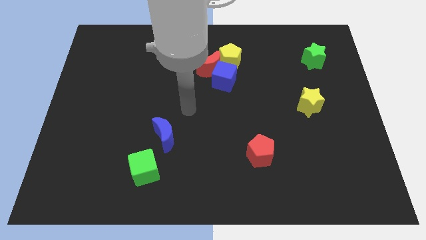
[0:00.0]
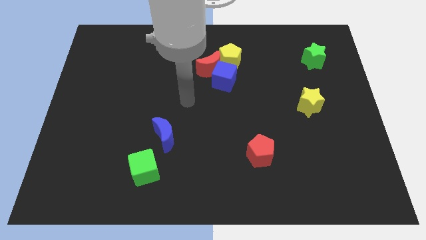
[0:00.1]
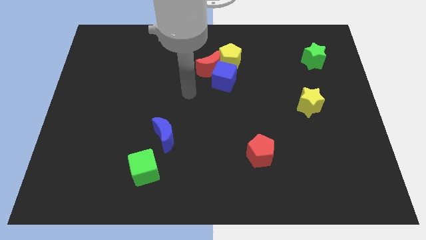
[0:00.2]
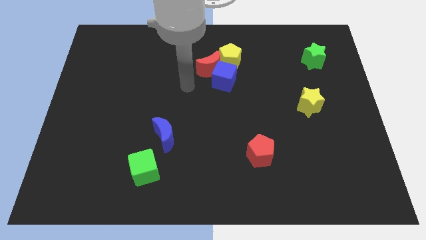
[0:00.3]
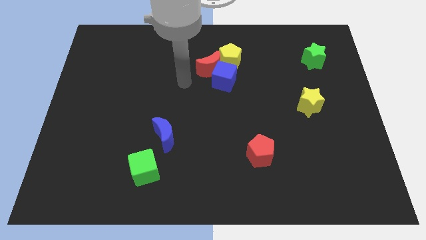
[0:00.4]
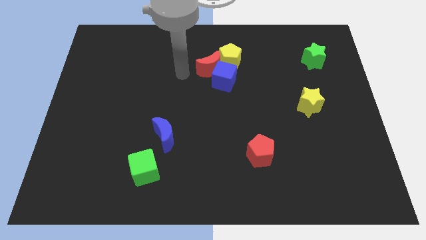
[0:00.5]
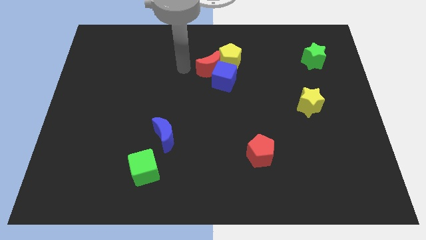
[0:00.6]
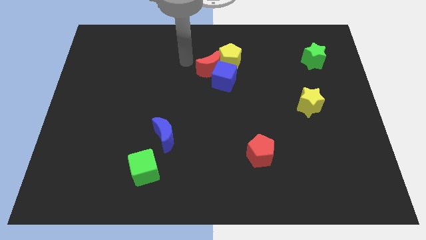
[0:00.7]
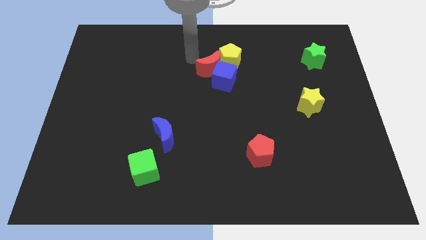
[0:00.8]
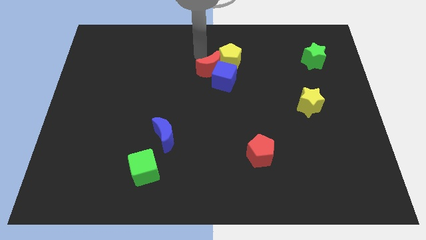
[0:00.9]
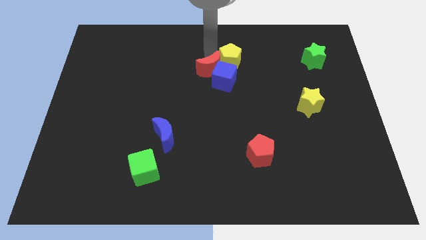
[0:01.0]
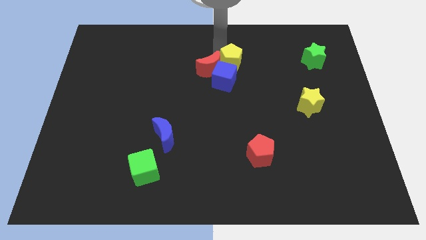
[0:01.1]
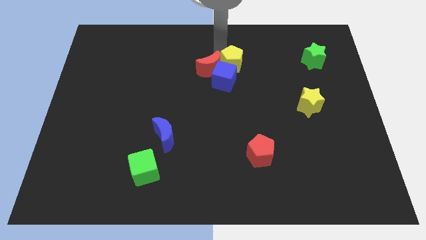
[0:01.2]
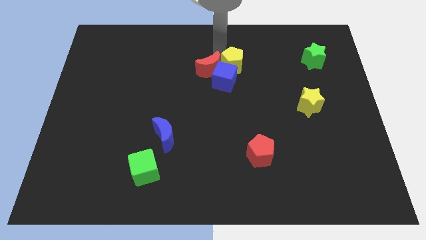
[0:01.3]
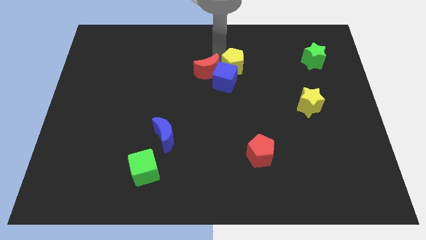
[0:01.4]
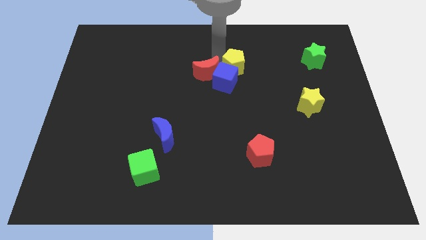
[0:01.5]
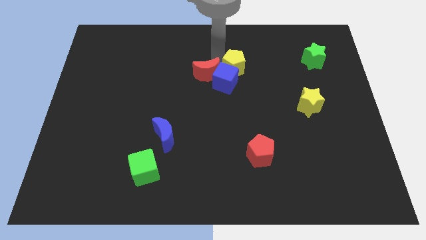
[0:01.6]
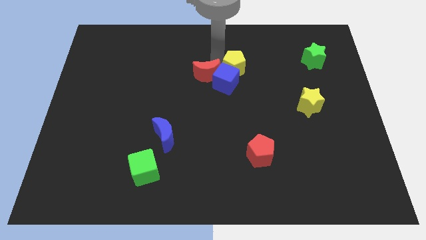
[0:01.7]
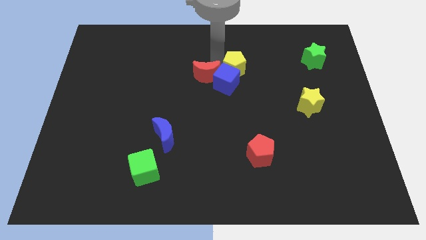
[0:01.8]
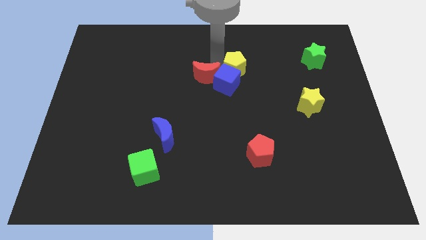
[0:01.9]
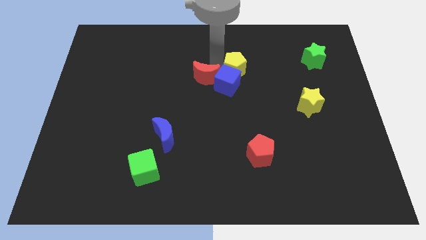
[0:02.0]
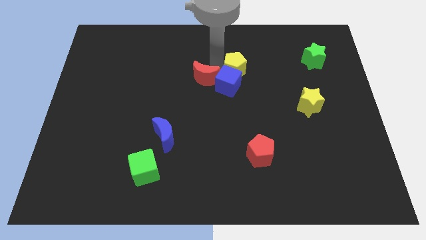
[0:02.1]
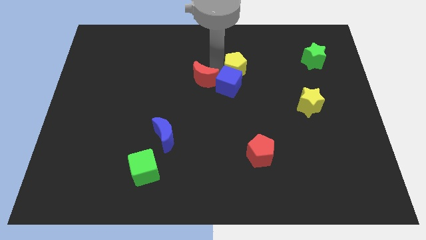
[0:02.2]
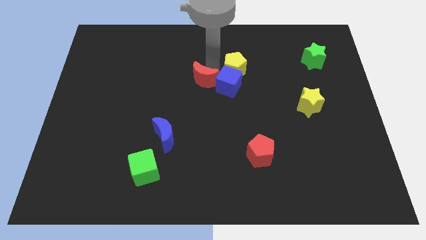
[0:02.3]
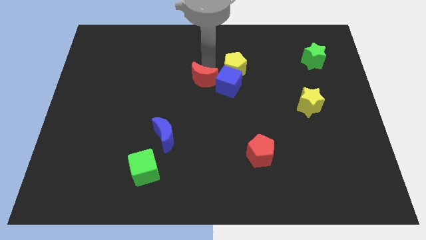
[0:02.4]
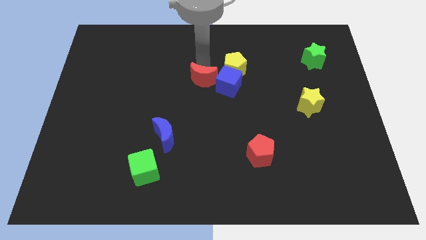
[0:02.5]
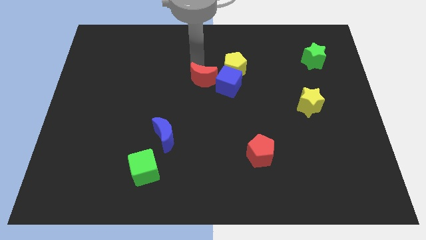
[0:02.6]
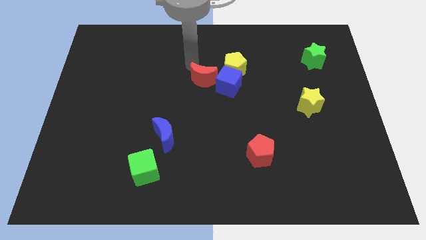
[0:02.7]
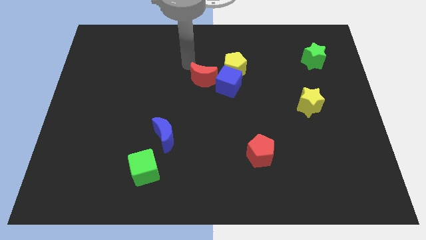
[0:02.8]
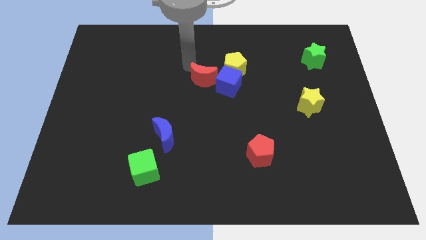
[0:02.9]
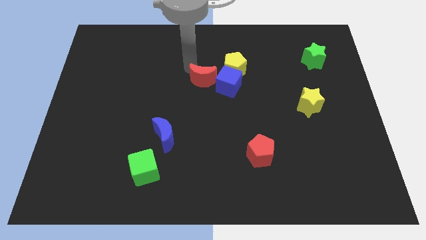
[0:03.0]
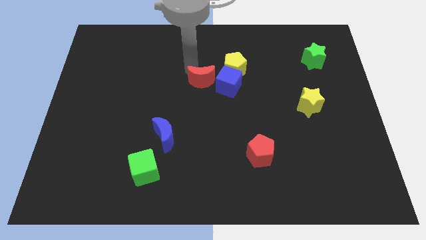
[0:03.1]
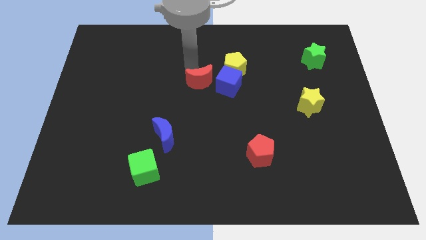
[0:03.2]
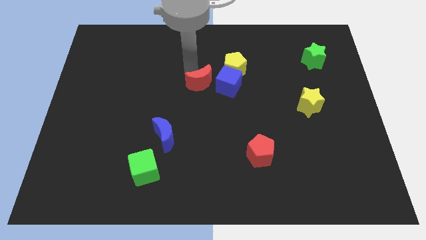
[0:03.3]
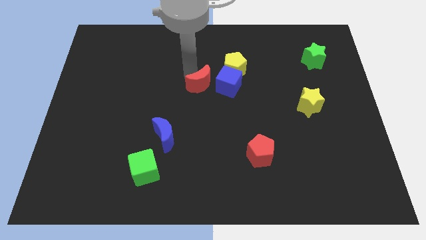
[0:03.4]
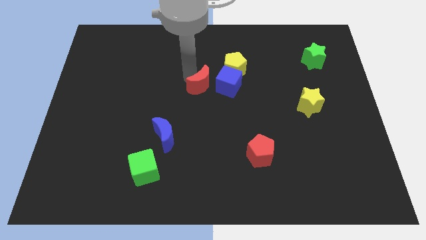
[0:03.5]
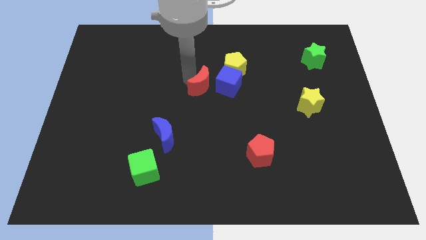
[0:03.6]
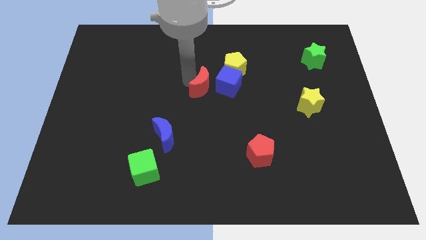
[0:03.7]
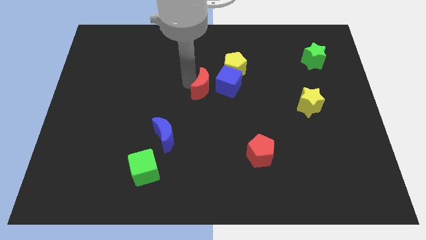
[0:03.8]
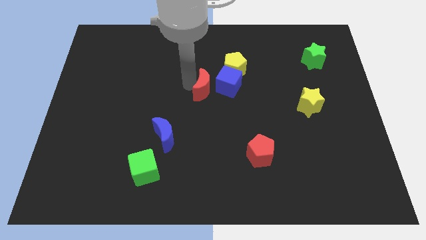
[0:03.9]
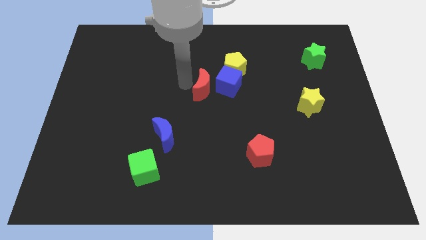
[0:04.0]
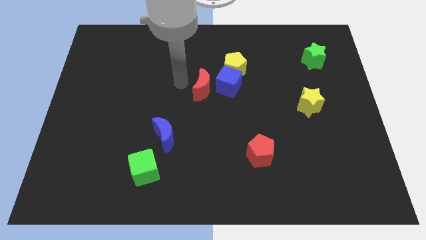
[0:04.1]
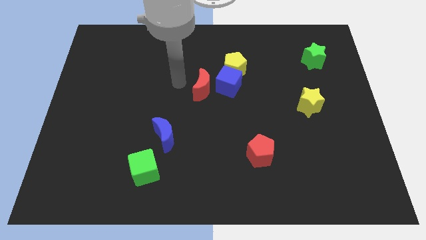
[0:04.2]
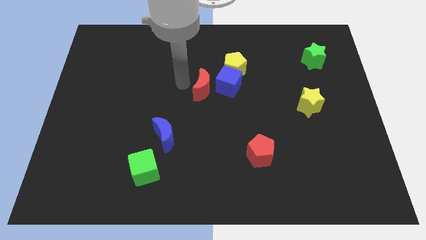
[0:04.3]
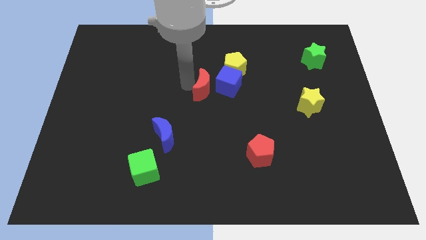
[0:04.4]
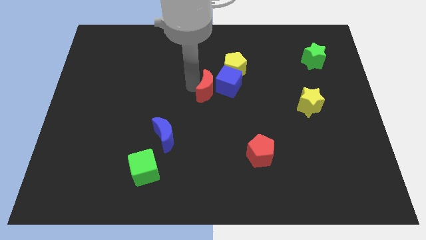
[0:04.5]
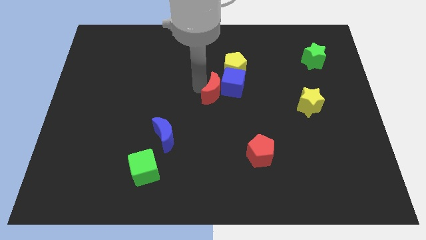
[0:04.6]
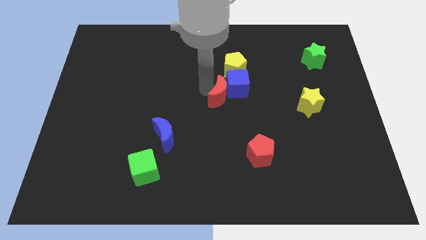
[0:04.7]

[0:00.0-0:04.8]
move the red moon to the bottom side of the yellow pentagon

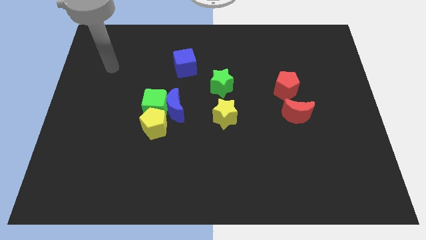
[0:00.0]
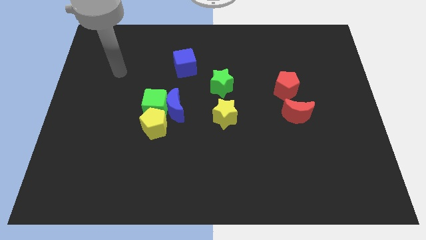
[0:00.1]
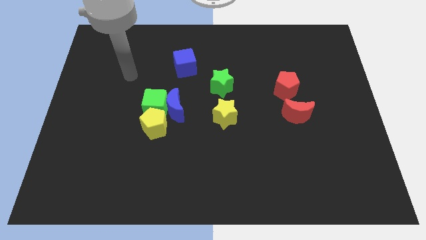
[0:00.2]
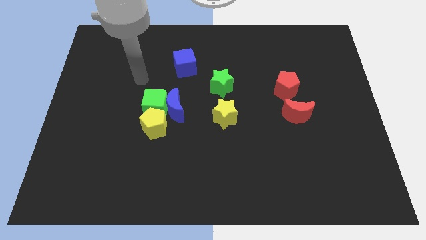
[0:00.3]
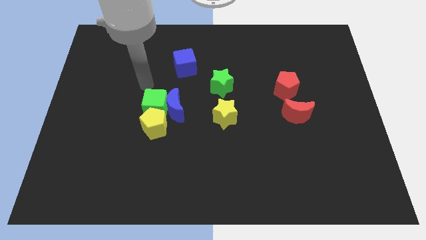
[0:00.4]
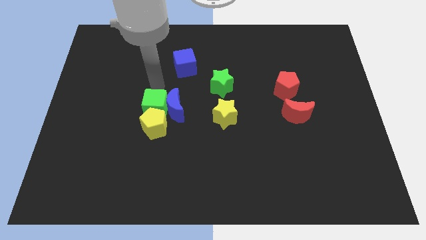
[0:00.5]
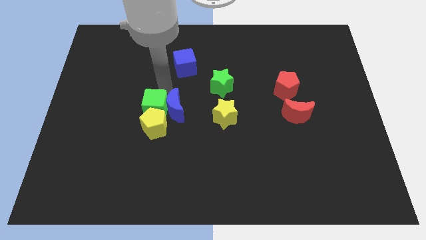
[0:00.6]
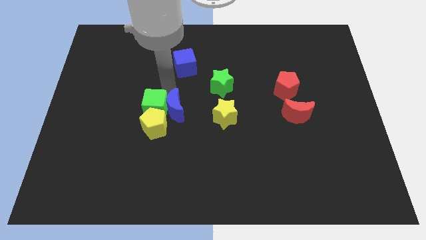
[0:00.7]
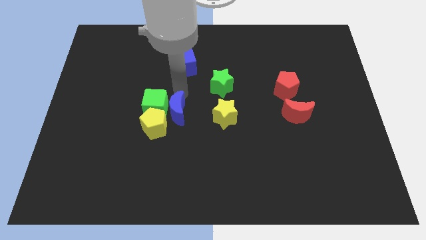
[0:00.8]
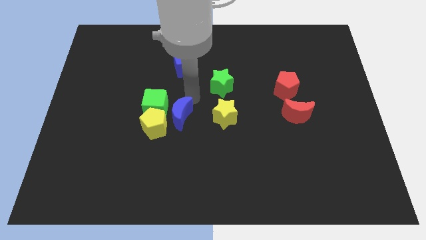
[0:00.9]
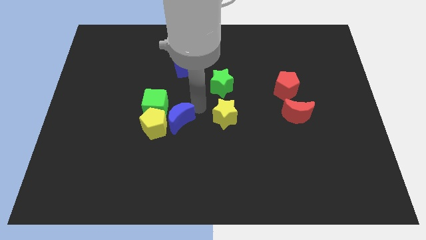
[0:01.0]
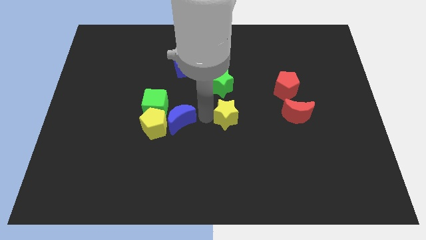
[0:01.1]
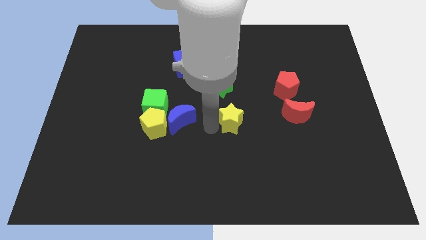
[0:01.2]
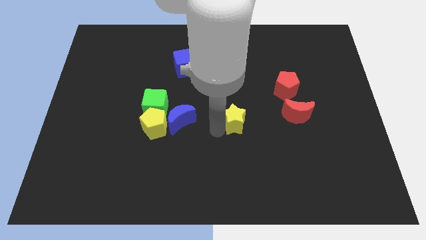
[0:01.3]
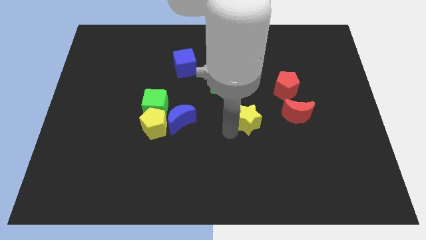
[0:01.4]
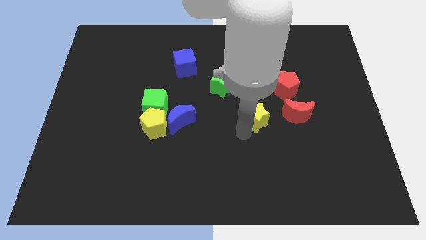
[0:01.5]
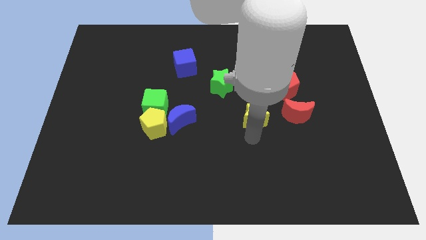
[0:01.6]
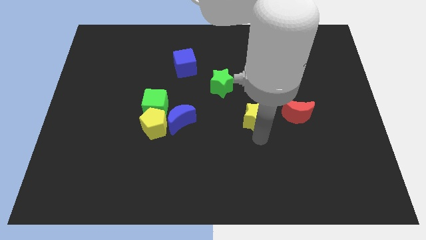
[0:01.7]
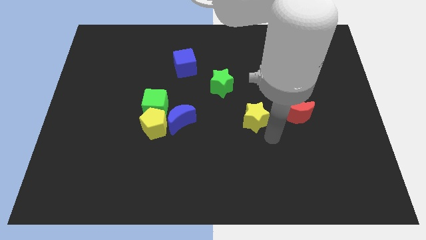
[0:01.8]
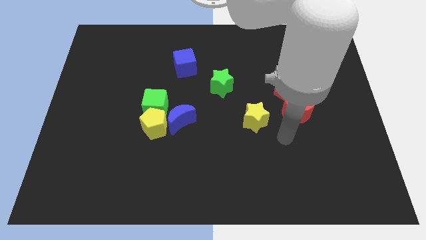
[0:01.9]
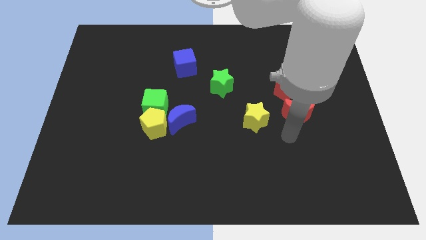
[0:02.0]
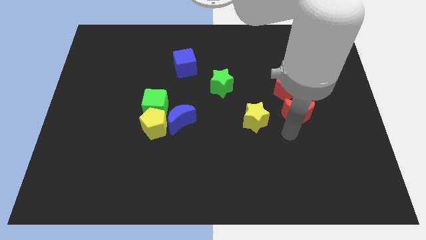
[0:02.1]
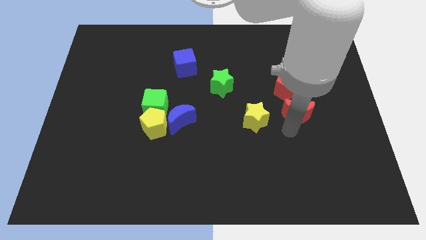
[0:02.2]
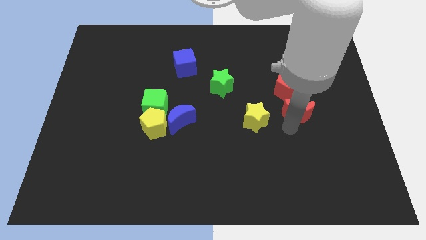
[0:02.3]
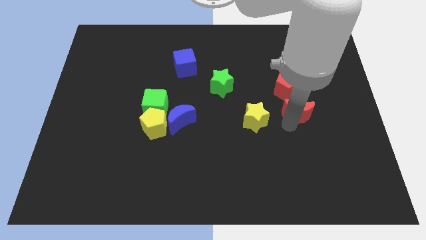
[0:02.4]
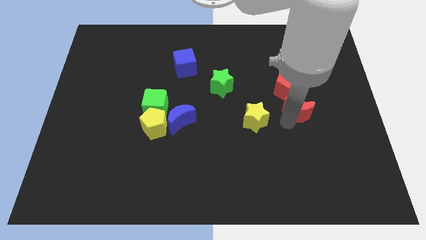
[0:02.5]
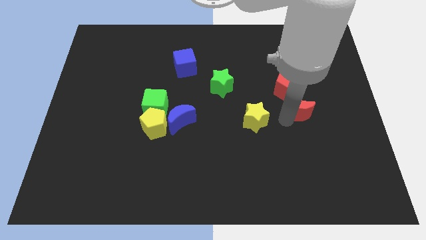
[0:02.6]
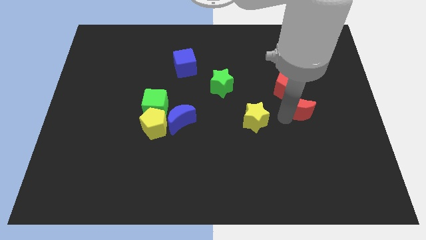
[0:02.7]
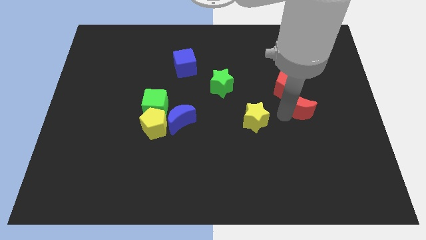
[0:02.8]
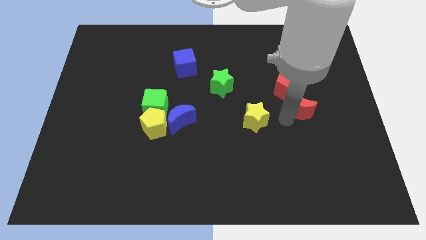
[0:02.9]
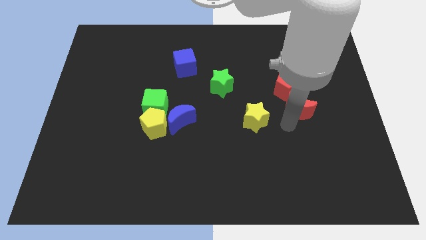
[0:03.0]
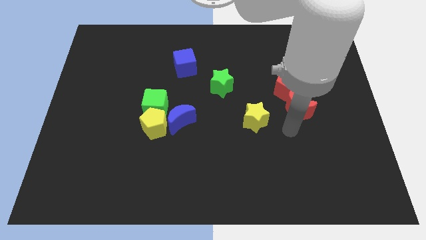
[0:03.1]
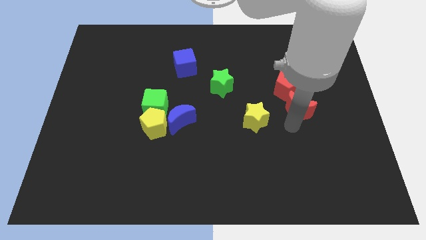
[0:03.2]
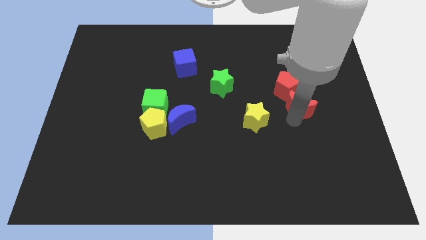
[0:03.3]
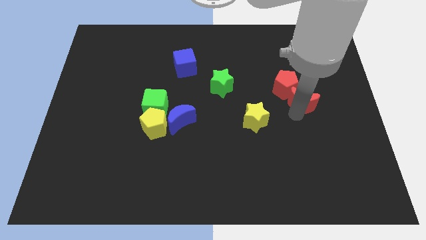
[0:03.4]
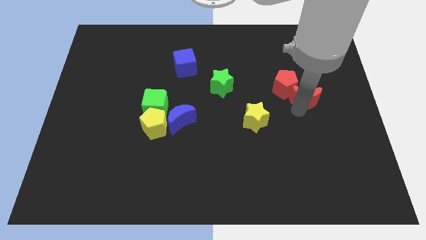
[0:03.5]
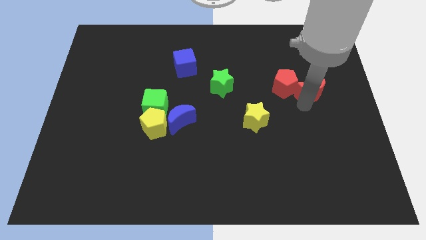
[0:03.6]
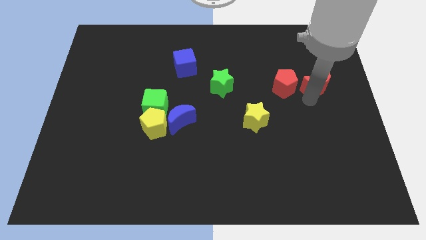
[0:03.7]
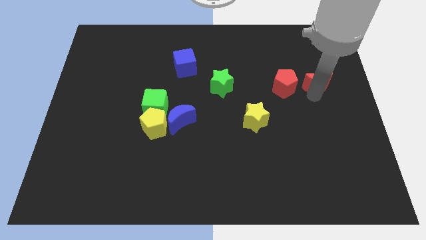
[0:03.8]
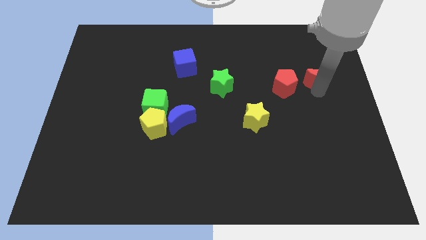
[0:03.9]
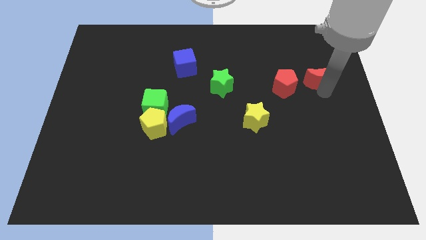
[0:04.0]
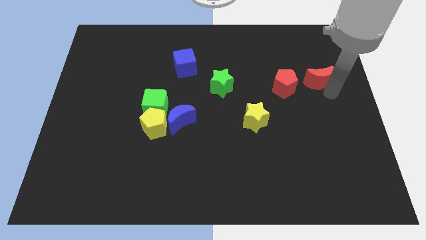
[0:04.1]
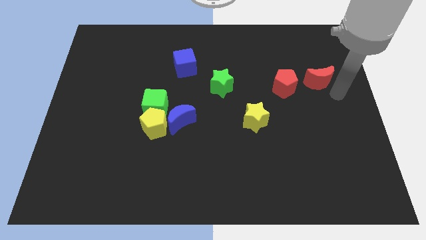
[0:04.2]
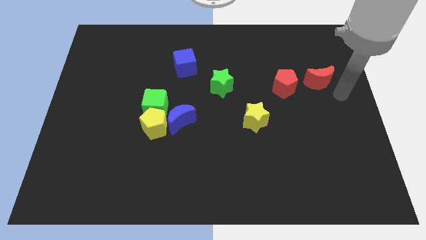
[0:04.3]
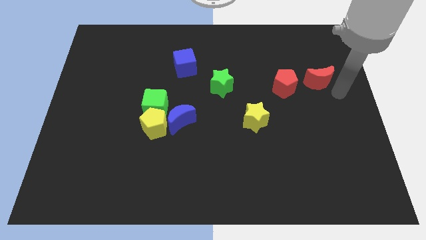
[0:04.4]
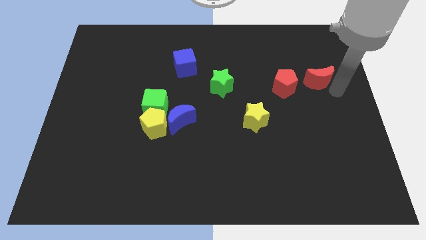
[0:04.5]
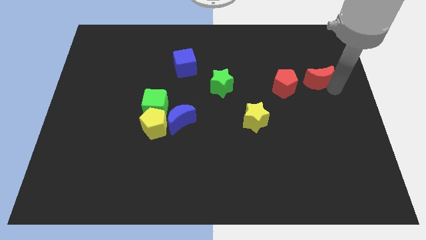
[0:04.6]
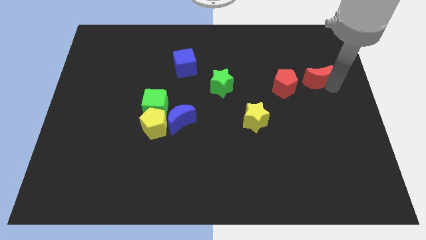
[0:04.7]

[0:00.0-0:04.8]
put the red moon to the top right of the red pentagon
